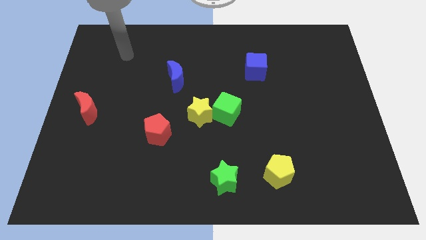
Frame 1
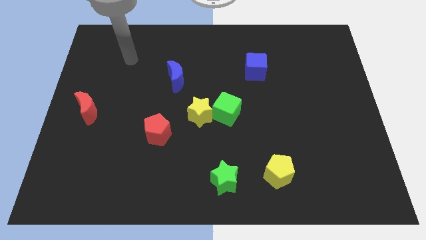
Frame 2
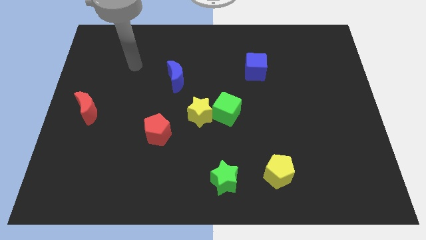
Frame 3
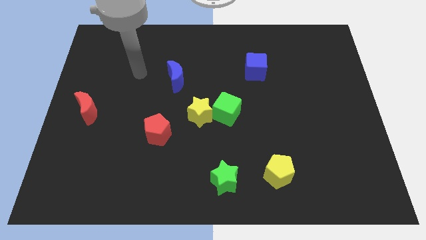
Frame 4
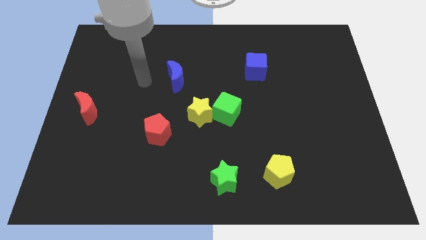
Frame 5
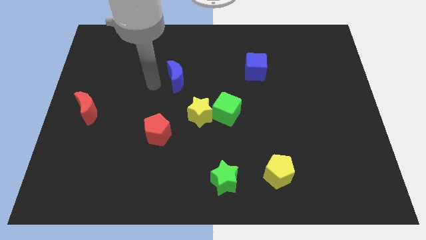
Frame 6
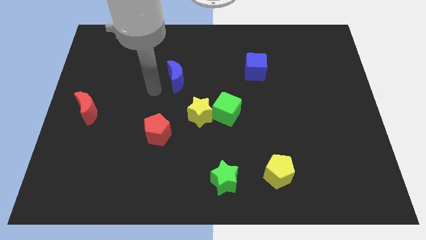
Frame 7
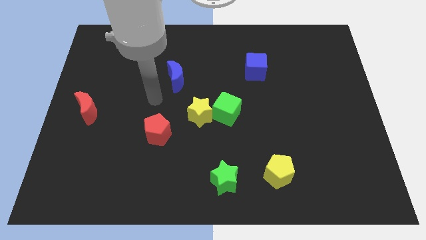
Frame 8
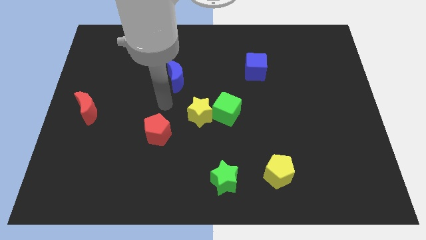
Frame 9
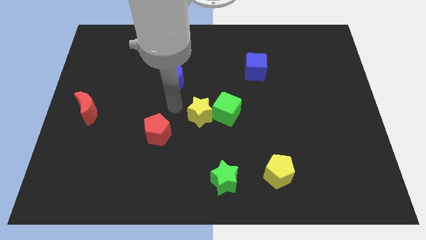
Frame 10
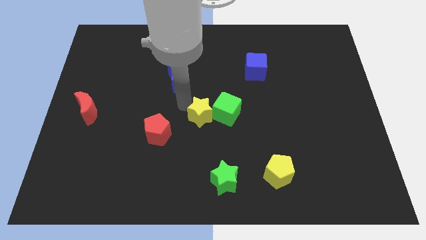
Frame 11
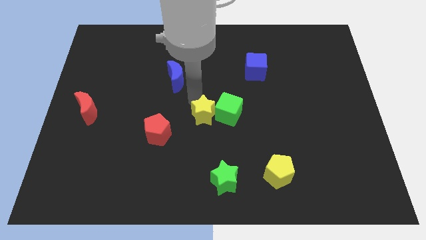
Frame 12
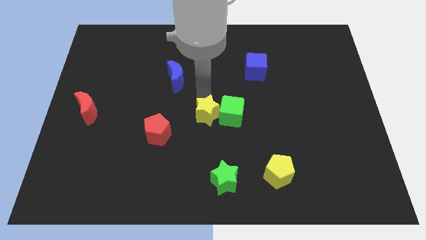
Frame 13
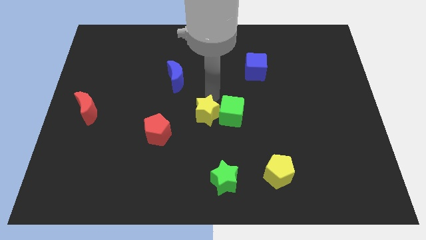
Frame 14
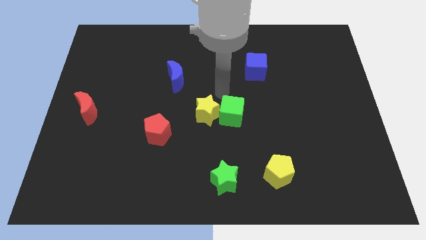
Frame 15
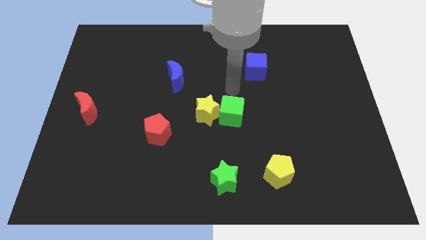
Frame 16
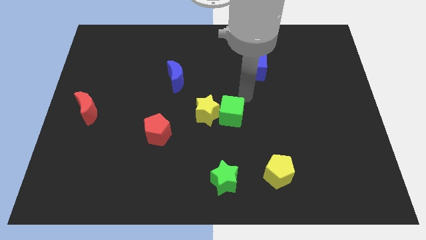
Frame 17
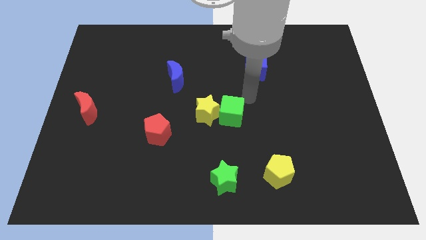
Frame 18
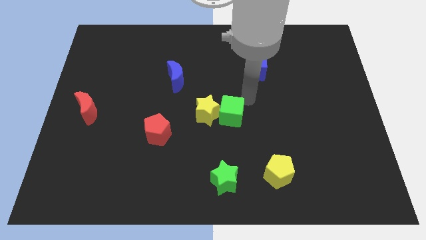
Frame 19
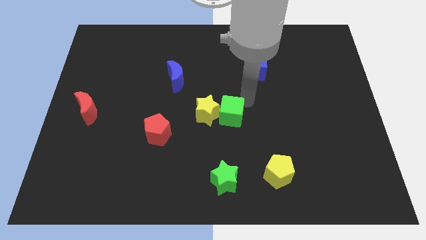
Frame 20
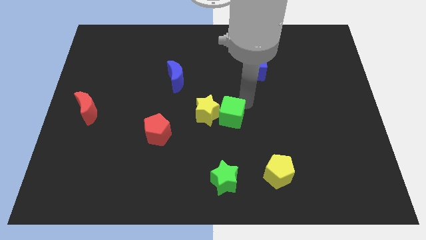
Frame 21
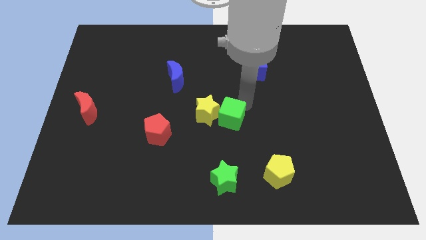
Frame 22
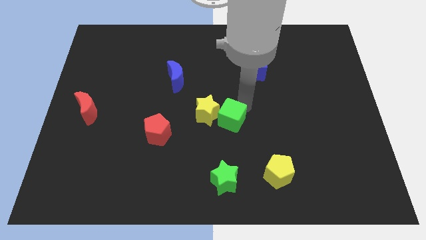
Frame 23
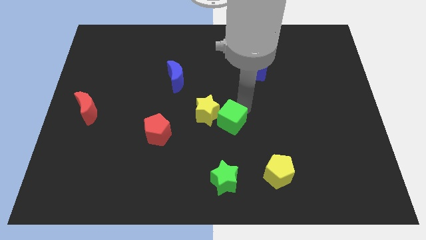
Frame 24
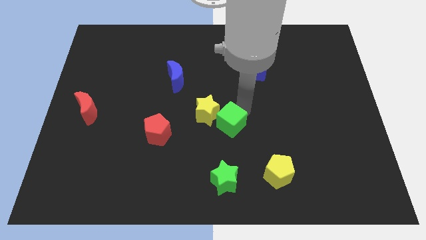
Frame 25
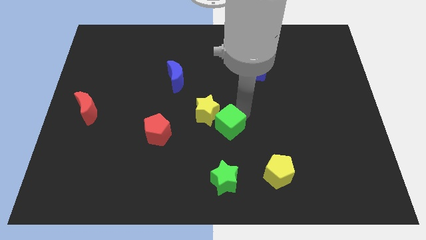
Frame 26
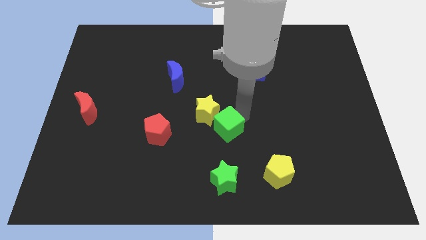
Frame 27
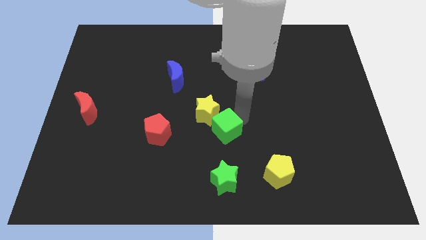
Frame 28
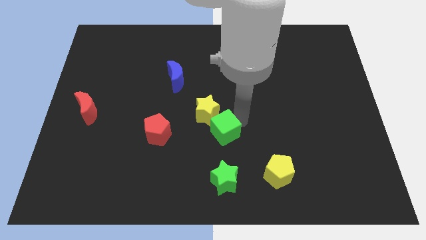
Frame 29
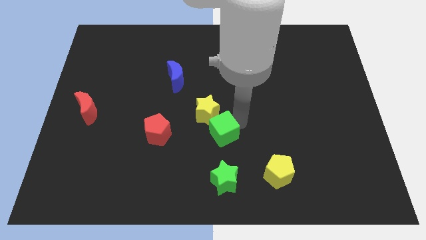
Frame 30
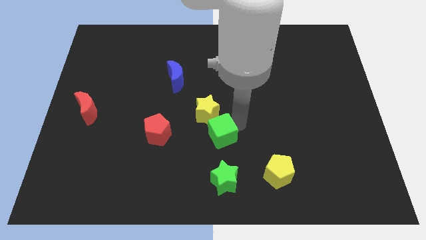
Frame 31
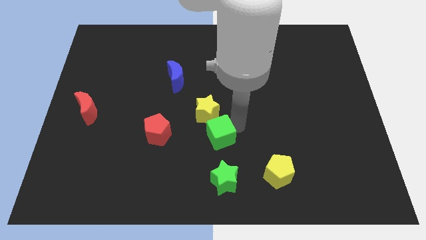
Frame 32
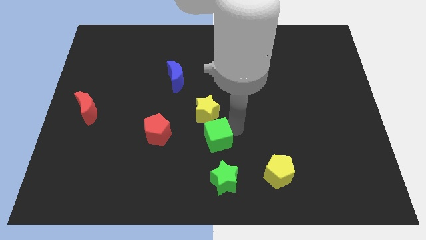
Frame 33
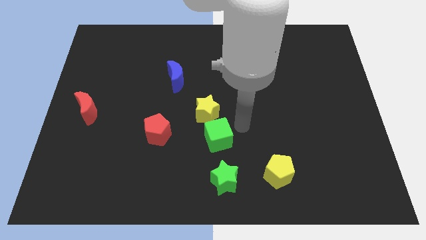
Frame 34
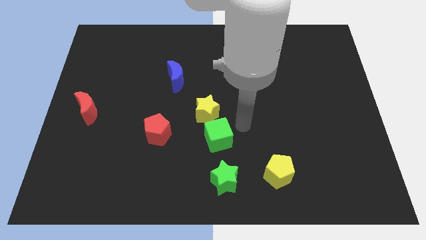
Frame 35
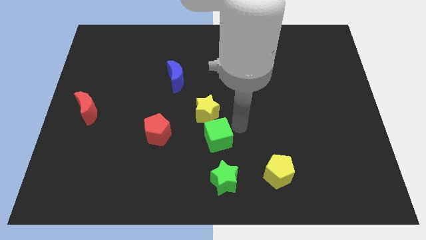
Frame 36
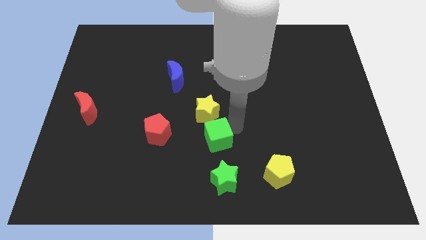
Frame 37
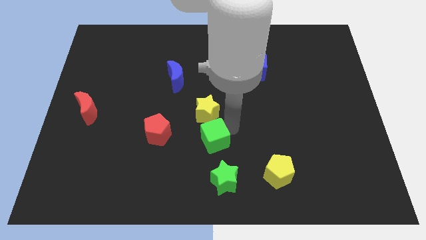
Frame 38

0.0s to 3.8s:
move the green cube a bit down and left diagonally

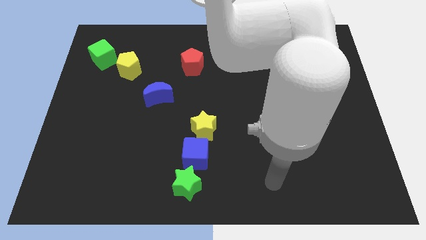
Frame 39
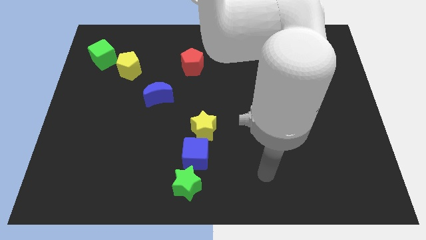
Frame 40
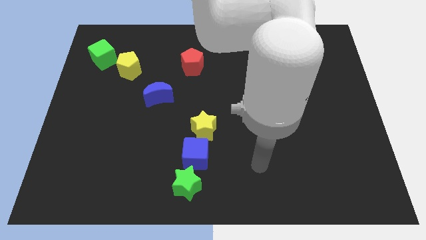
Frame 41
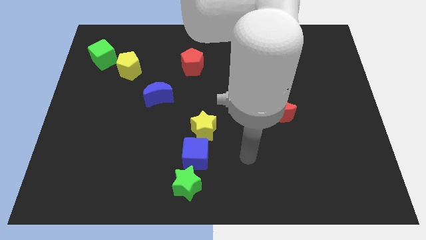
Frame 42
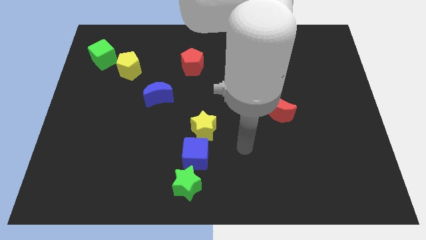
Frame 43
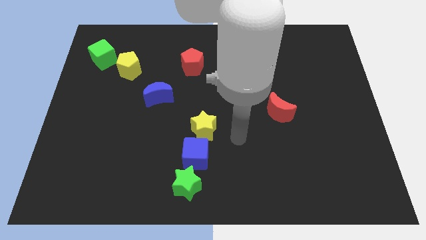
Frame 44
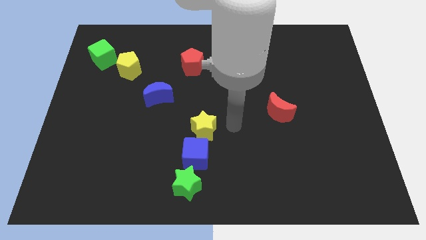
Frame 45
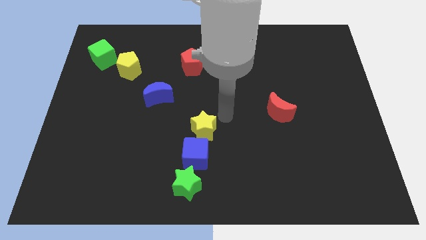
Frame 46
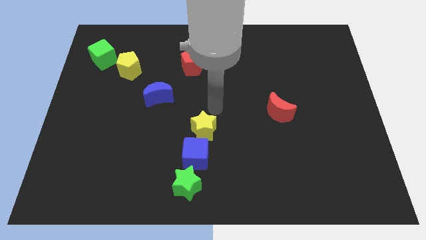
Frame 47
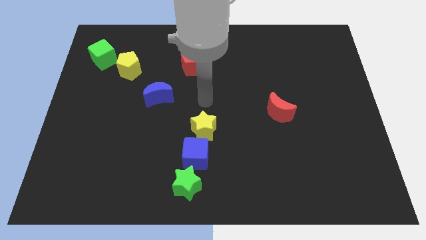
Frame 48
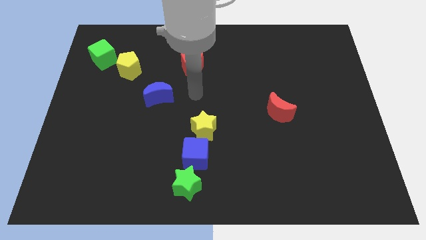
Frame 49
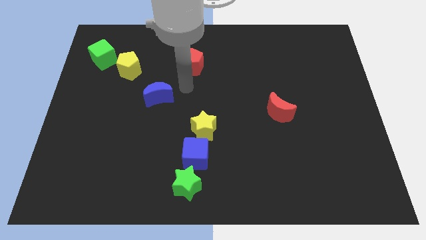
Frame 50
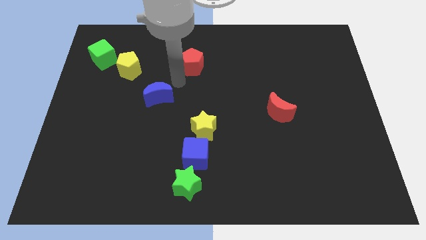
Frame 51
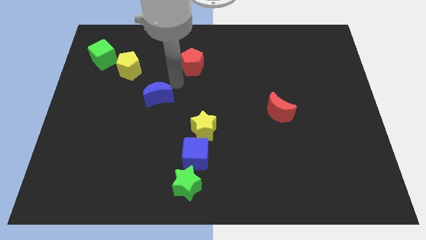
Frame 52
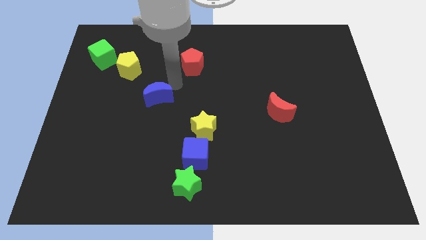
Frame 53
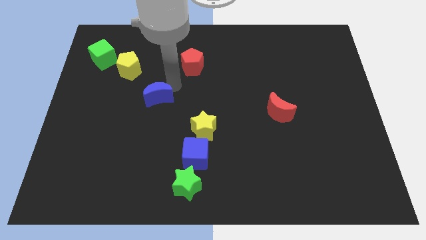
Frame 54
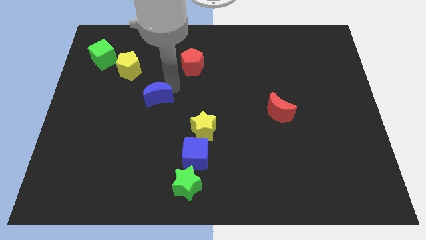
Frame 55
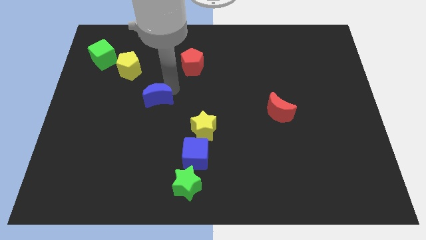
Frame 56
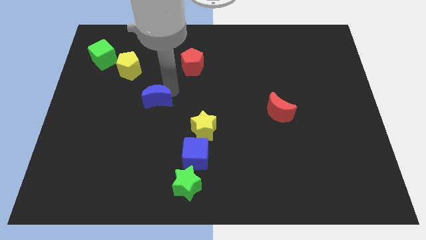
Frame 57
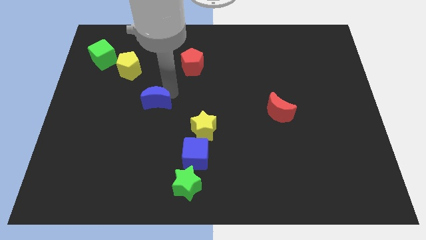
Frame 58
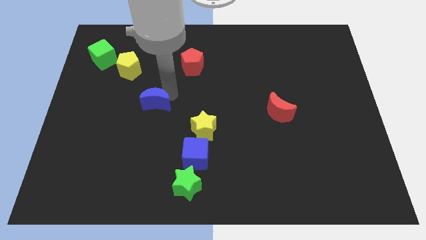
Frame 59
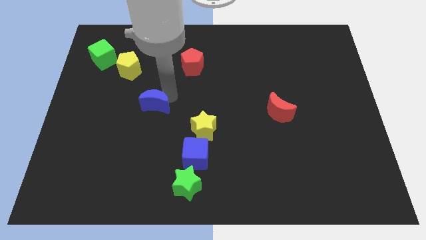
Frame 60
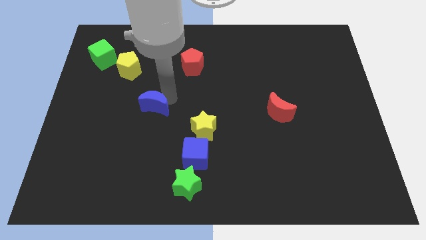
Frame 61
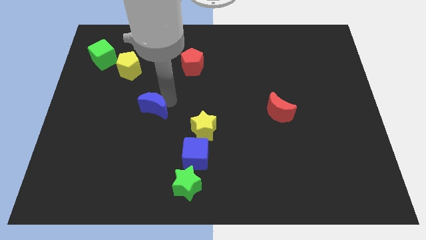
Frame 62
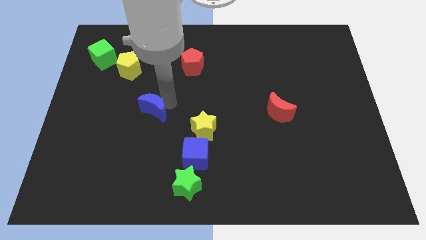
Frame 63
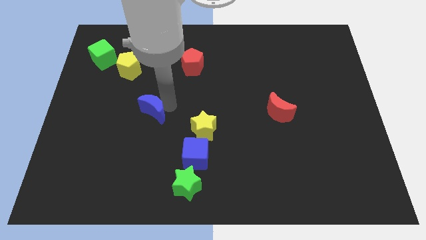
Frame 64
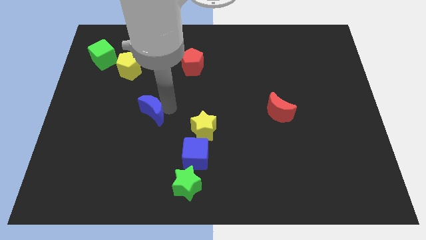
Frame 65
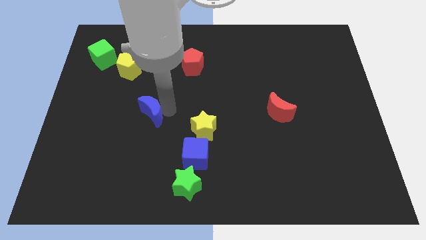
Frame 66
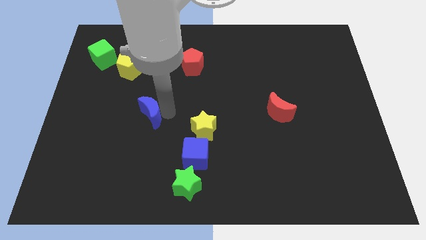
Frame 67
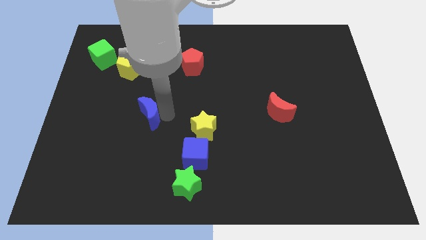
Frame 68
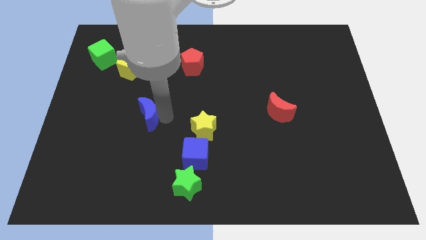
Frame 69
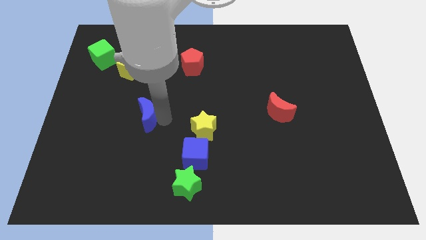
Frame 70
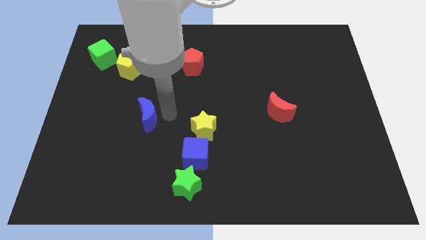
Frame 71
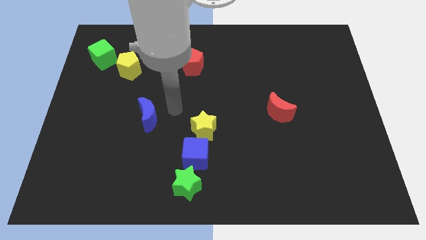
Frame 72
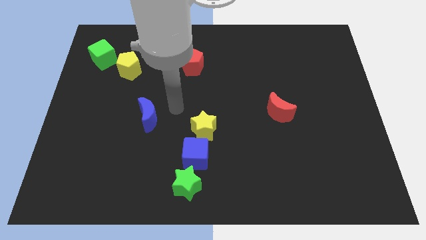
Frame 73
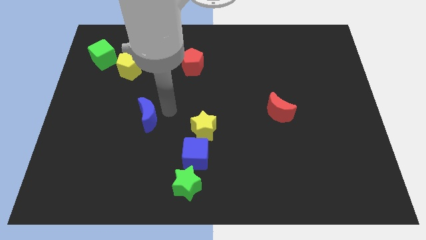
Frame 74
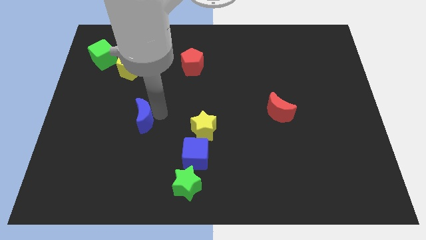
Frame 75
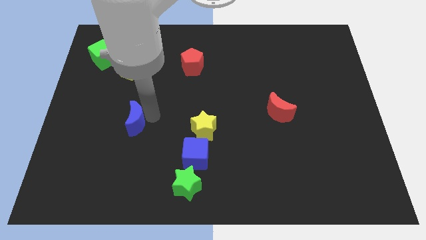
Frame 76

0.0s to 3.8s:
slightly push the blue moon down and then left

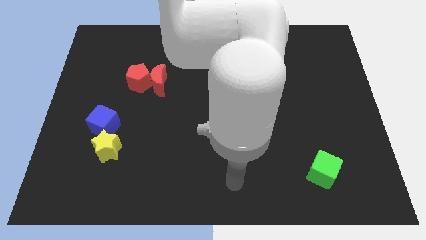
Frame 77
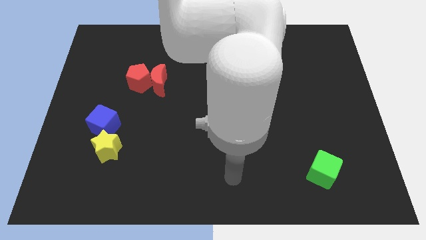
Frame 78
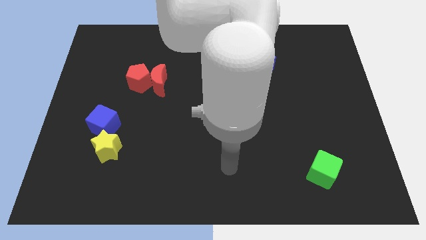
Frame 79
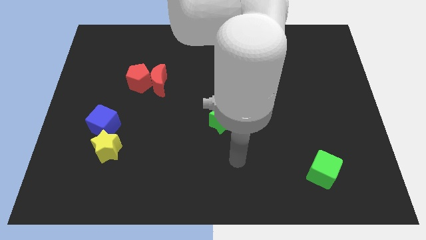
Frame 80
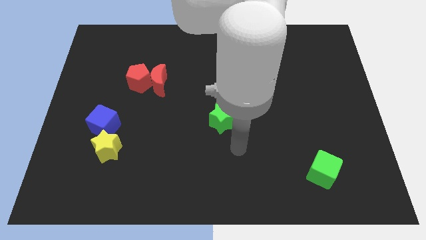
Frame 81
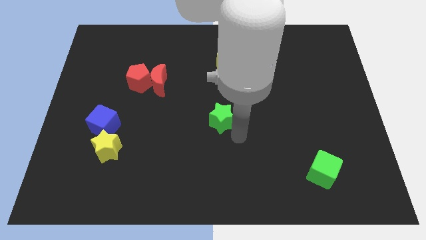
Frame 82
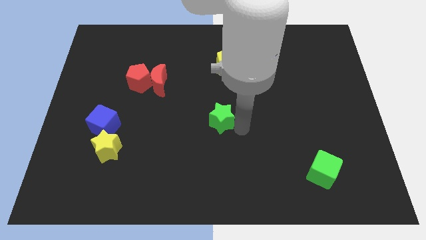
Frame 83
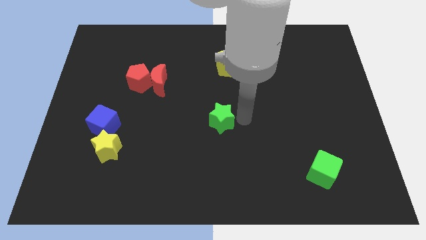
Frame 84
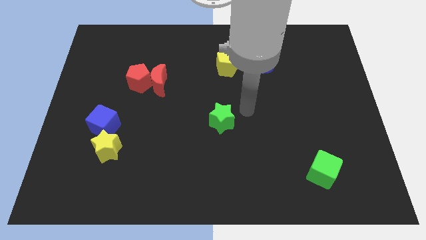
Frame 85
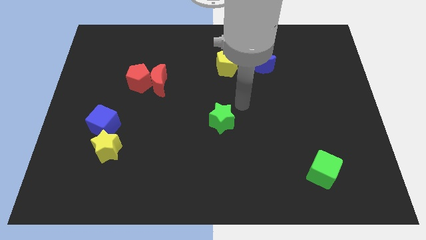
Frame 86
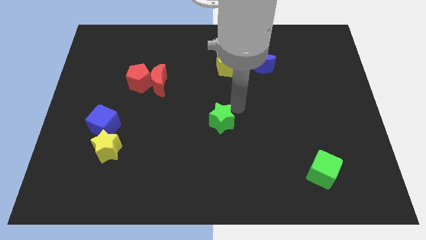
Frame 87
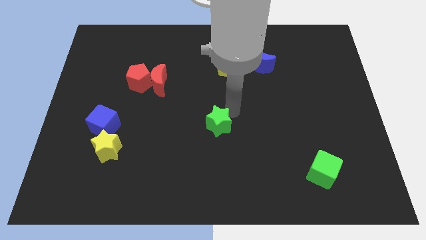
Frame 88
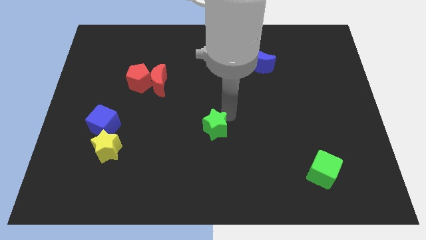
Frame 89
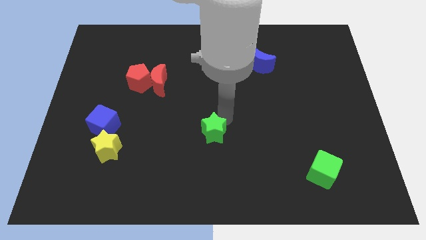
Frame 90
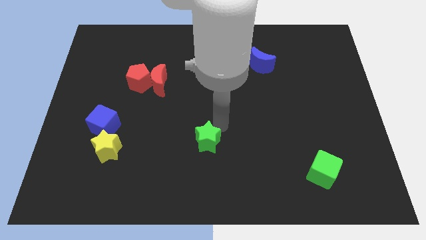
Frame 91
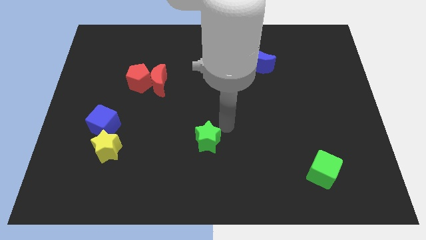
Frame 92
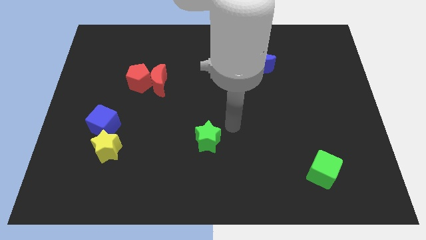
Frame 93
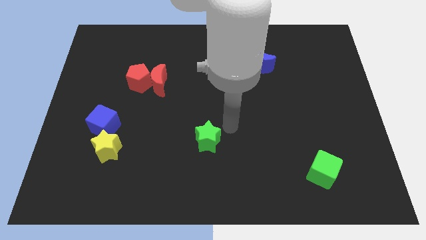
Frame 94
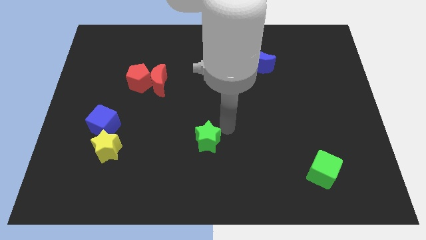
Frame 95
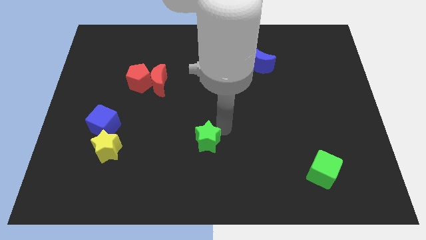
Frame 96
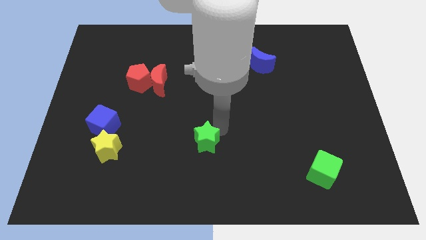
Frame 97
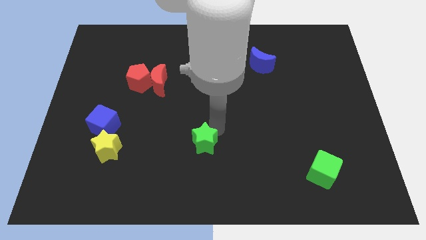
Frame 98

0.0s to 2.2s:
slightly move the green star down and to the left diagonally
